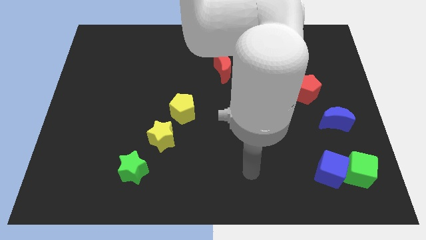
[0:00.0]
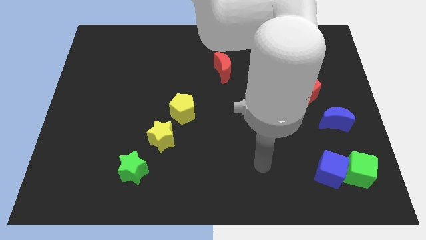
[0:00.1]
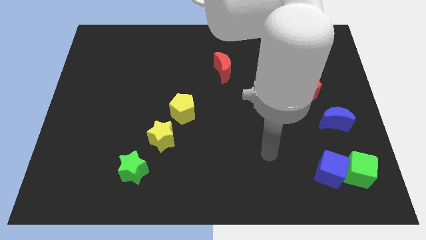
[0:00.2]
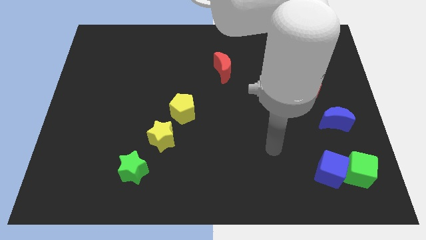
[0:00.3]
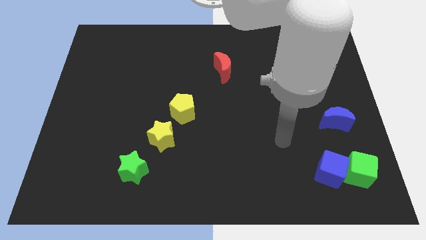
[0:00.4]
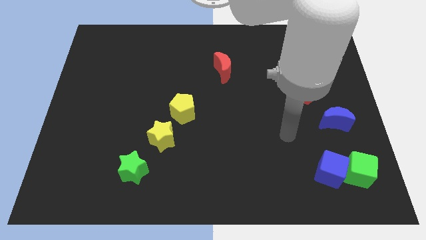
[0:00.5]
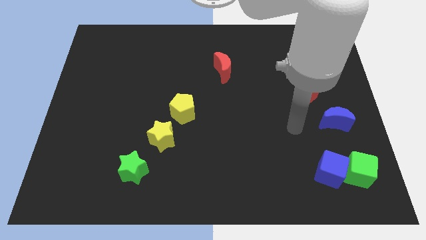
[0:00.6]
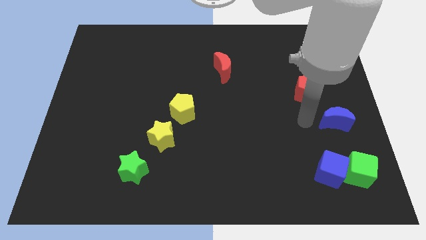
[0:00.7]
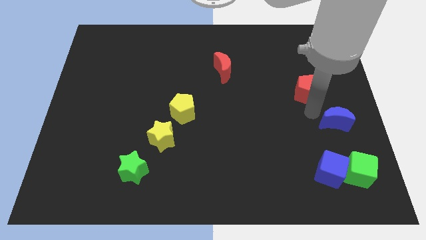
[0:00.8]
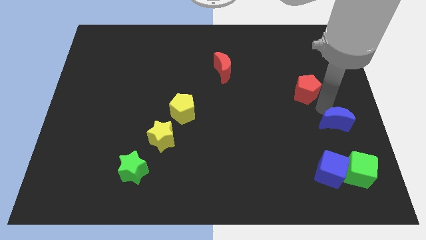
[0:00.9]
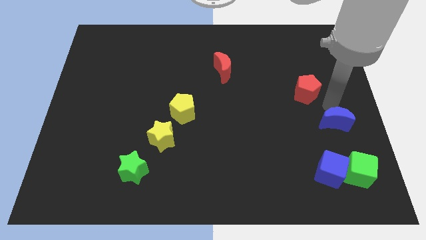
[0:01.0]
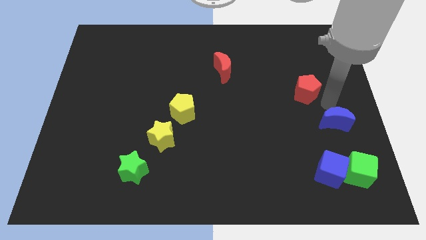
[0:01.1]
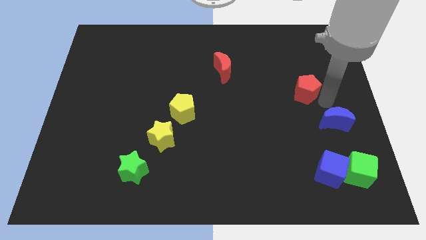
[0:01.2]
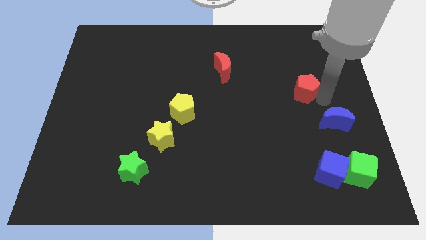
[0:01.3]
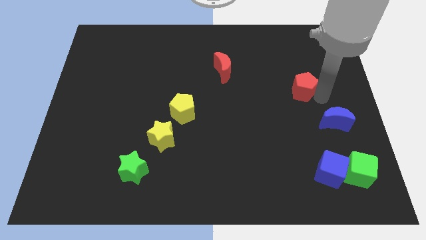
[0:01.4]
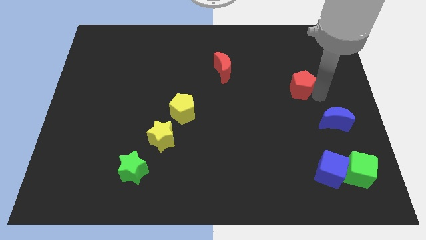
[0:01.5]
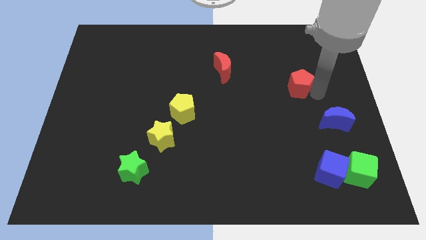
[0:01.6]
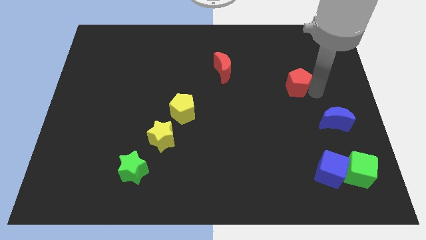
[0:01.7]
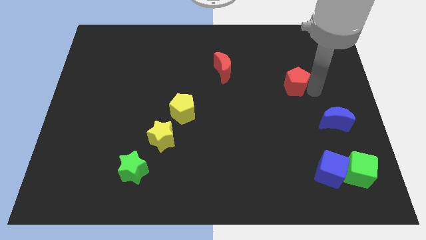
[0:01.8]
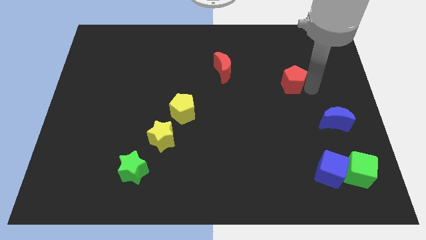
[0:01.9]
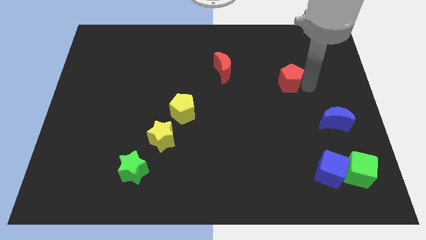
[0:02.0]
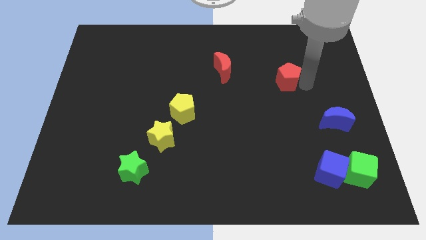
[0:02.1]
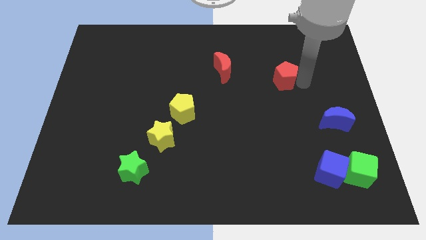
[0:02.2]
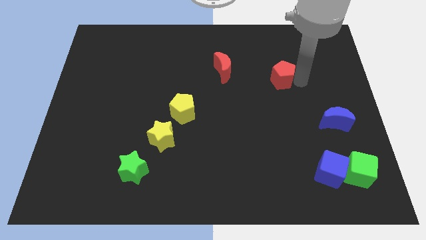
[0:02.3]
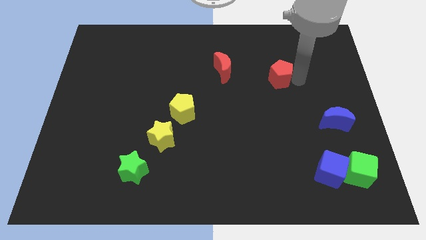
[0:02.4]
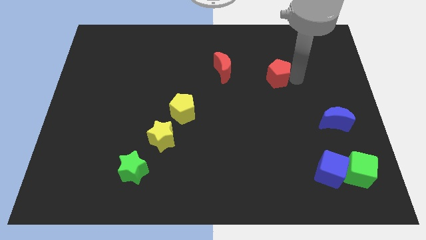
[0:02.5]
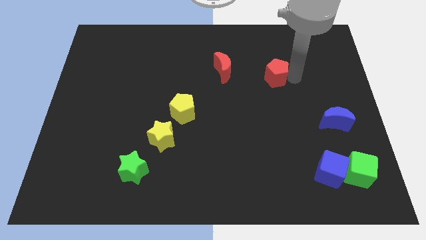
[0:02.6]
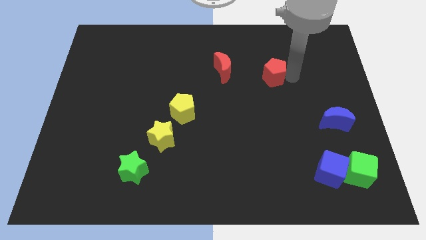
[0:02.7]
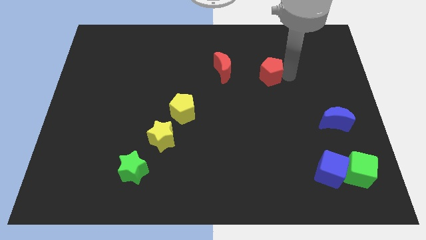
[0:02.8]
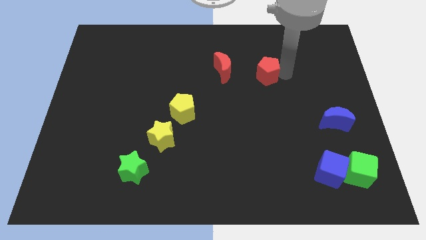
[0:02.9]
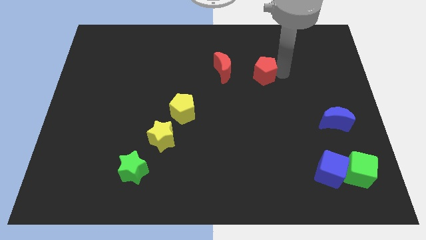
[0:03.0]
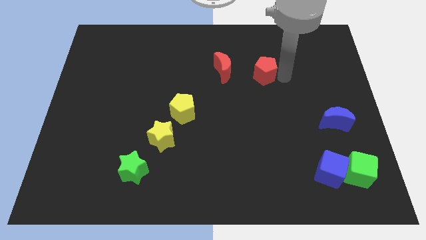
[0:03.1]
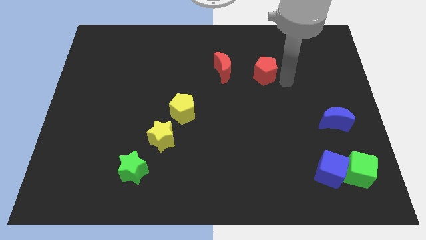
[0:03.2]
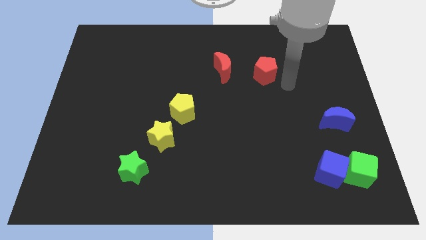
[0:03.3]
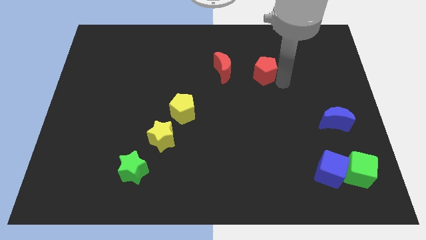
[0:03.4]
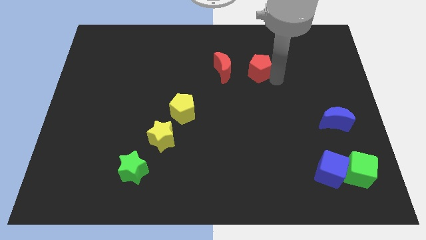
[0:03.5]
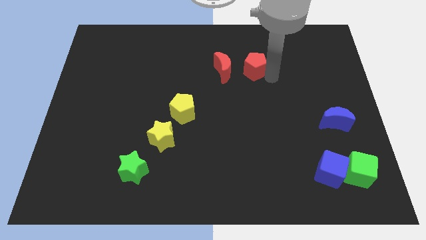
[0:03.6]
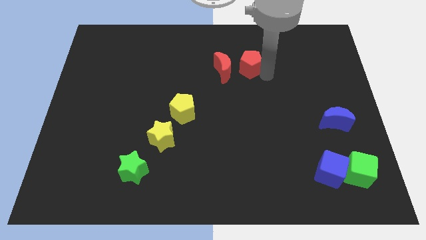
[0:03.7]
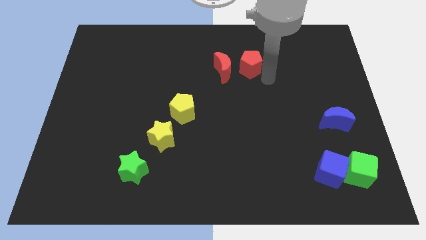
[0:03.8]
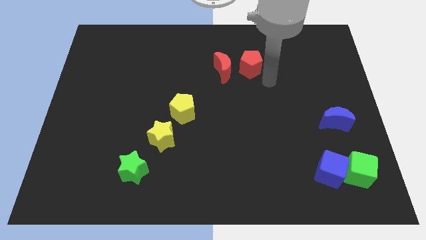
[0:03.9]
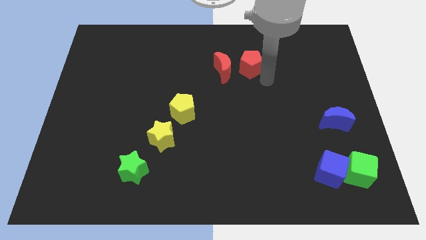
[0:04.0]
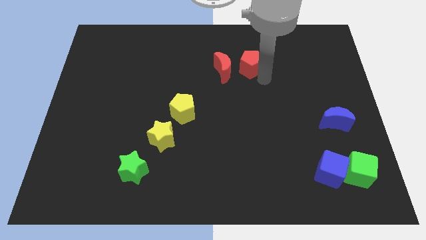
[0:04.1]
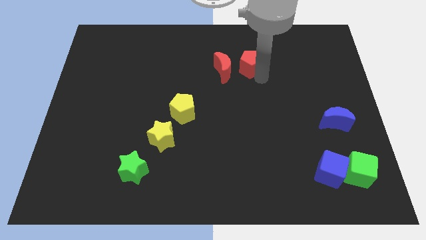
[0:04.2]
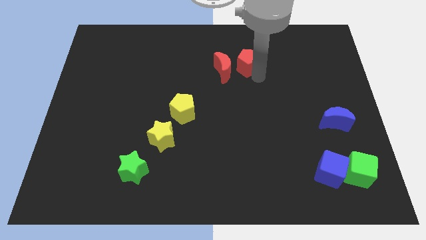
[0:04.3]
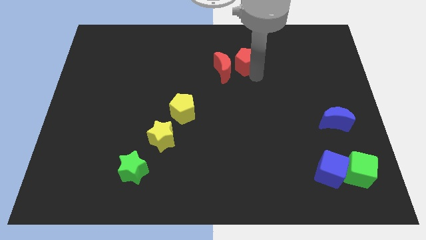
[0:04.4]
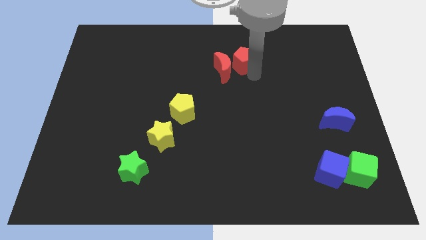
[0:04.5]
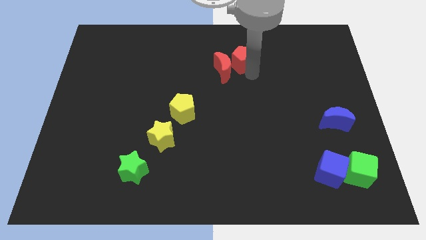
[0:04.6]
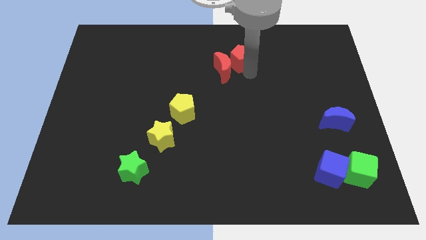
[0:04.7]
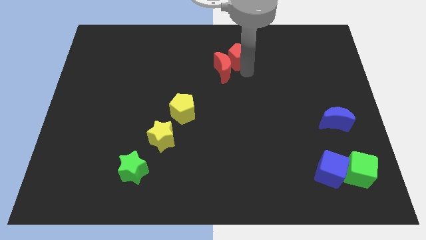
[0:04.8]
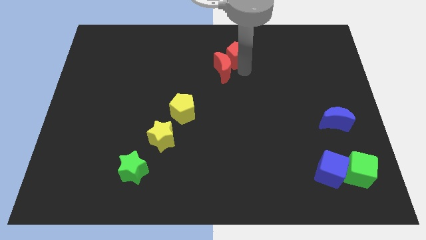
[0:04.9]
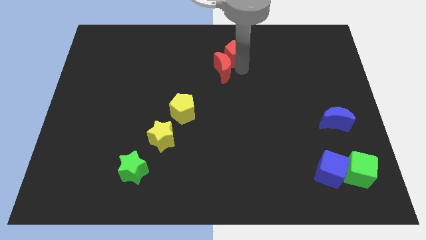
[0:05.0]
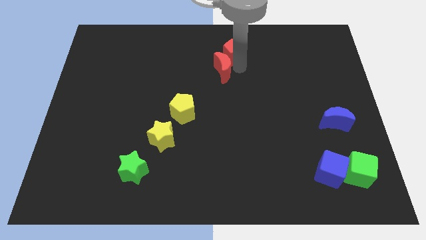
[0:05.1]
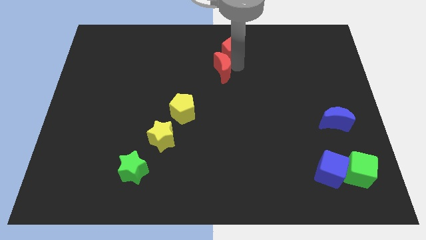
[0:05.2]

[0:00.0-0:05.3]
slide the red pentagon to the top side

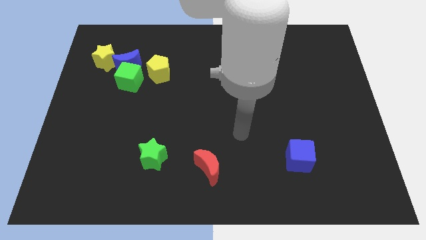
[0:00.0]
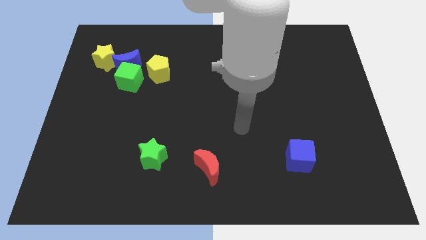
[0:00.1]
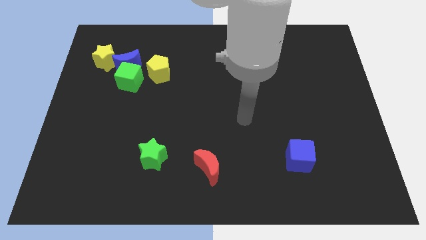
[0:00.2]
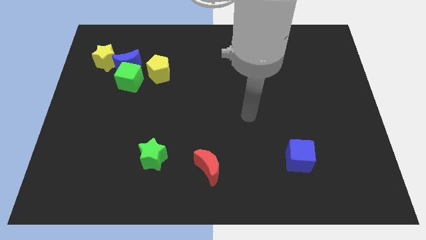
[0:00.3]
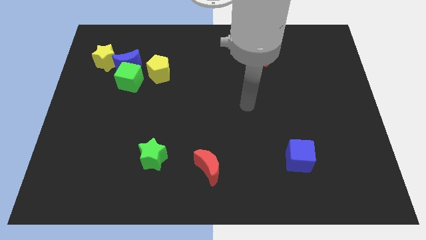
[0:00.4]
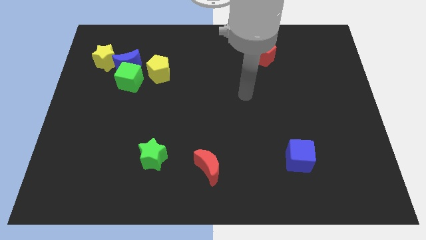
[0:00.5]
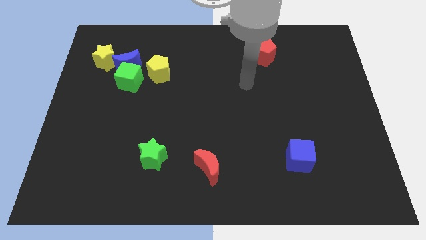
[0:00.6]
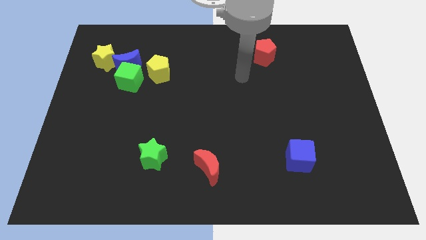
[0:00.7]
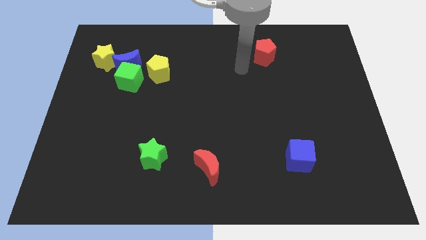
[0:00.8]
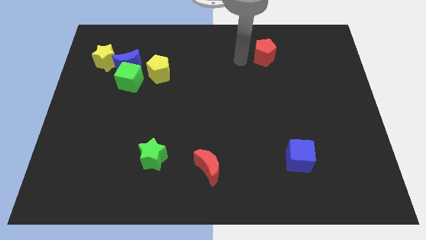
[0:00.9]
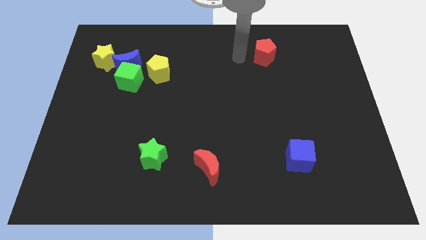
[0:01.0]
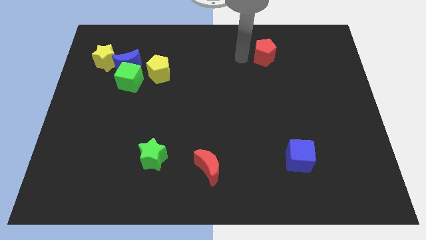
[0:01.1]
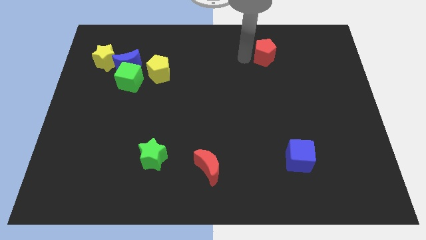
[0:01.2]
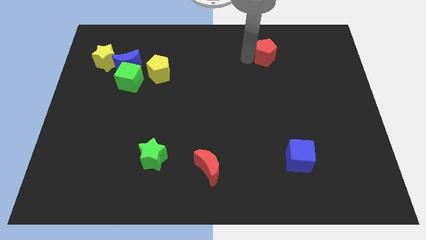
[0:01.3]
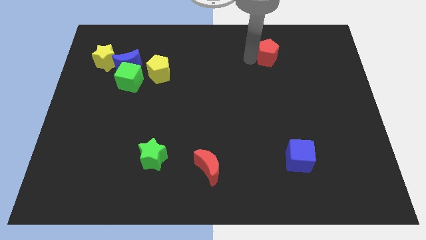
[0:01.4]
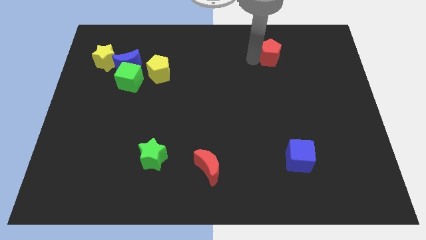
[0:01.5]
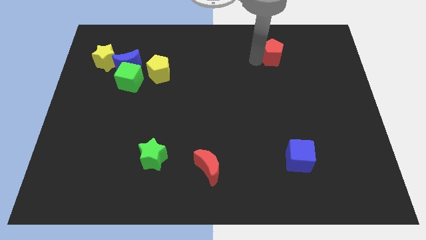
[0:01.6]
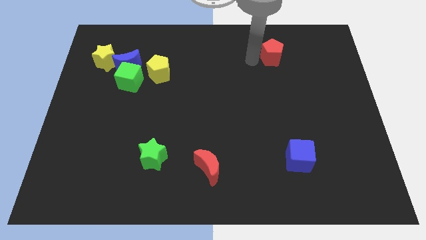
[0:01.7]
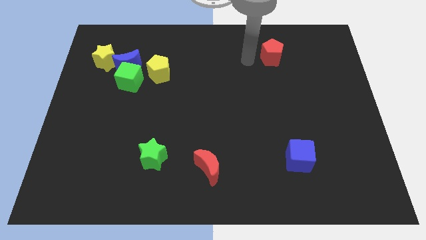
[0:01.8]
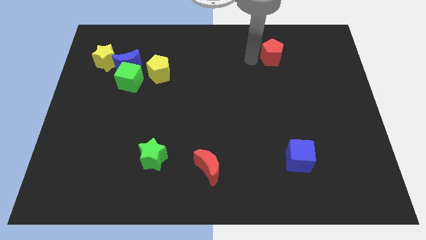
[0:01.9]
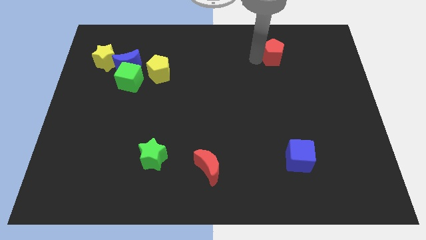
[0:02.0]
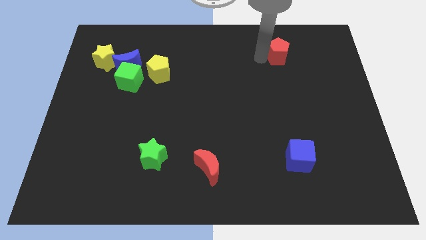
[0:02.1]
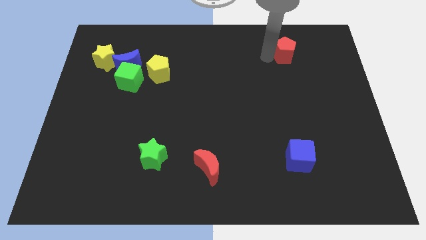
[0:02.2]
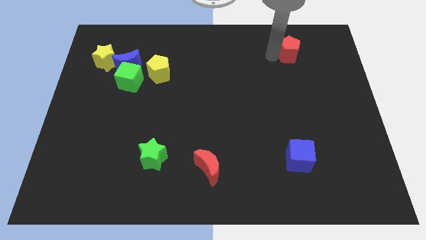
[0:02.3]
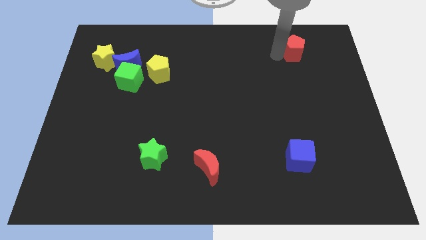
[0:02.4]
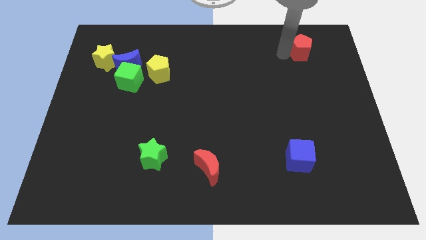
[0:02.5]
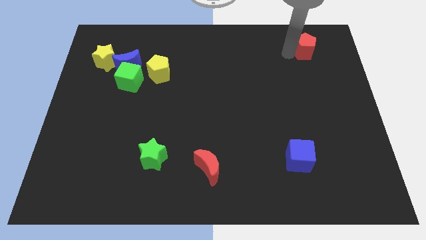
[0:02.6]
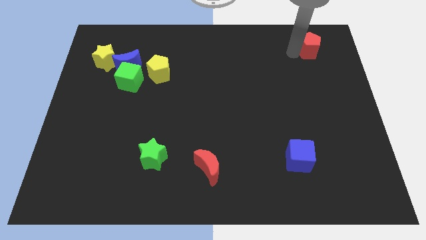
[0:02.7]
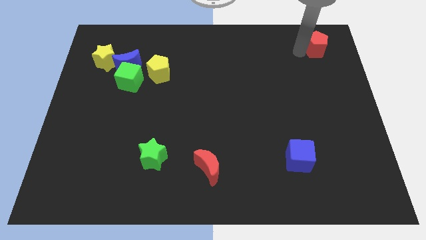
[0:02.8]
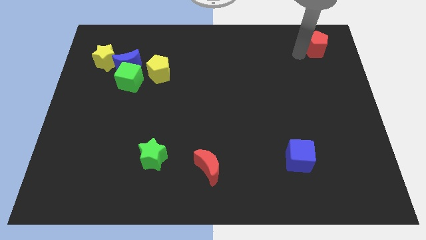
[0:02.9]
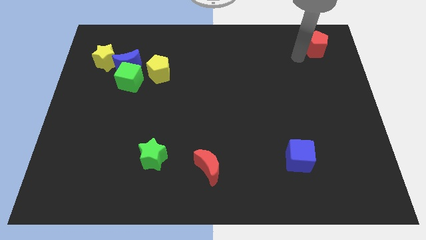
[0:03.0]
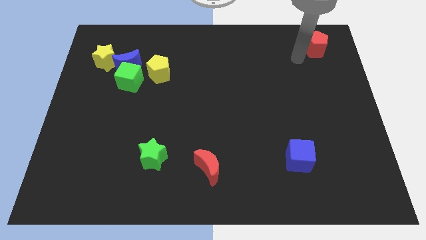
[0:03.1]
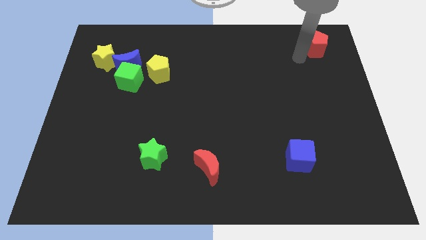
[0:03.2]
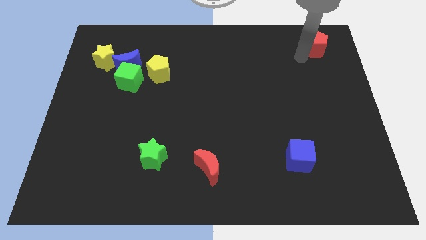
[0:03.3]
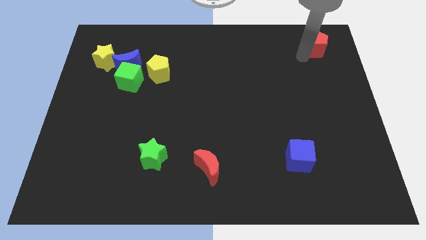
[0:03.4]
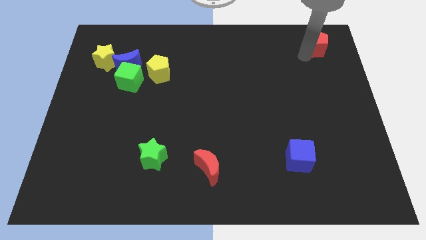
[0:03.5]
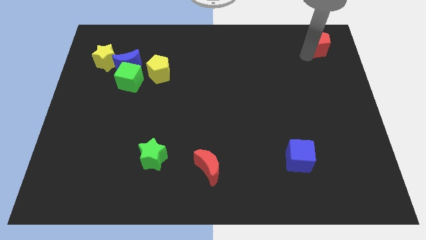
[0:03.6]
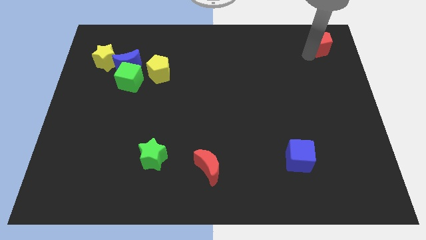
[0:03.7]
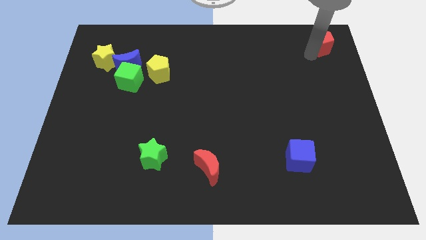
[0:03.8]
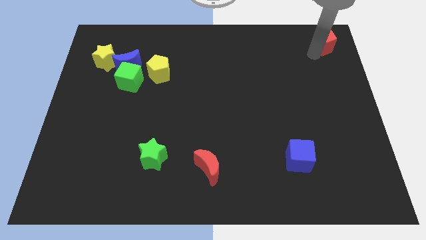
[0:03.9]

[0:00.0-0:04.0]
move the red pentagon to the upper right corner
